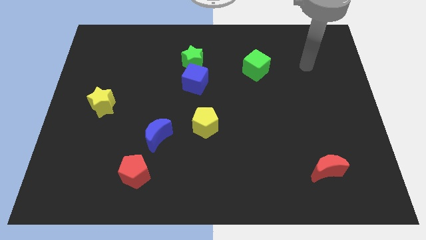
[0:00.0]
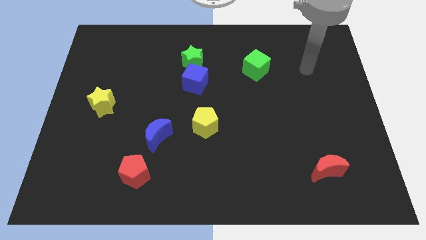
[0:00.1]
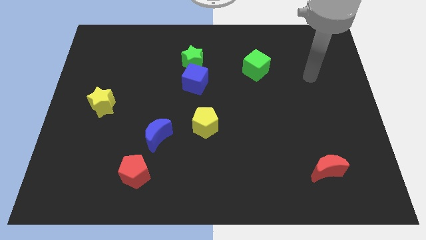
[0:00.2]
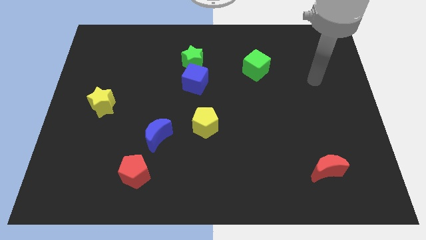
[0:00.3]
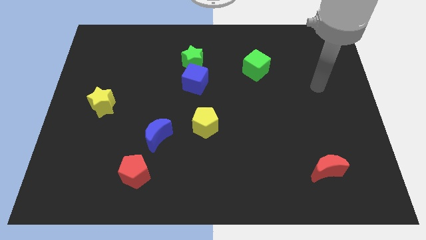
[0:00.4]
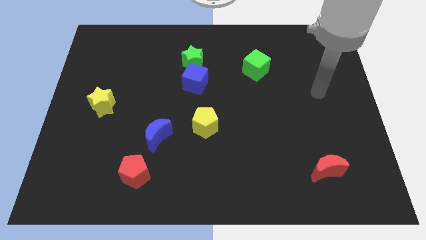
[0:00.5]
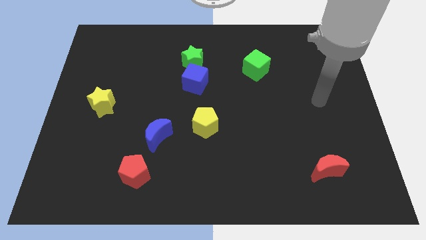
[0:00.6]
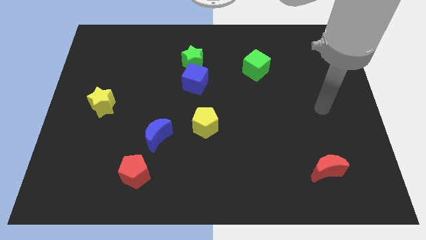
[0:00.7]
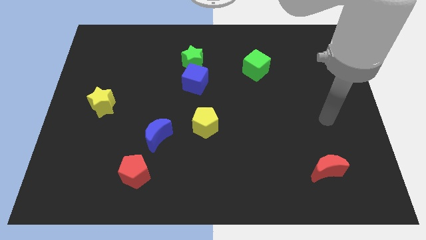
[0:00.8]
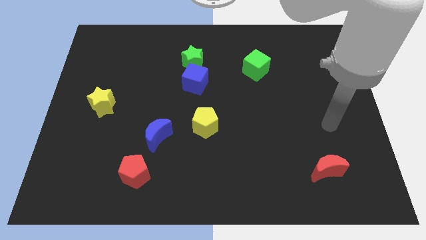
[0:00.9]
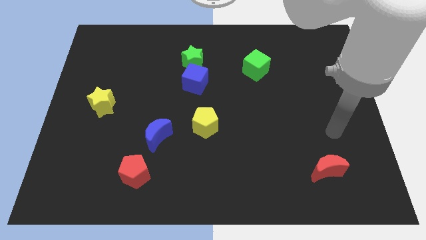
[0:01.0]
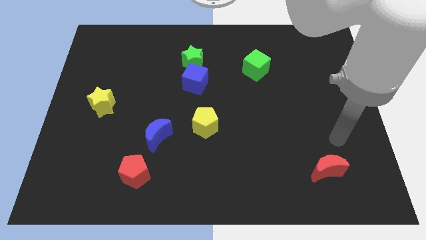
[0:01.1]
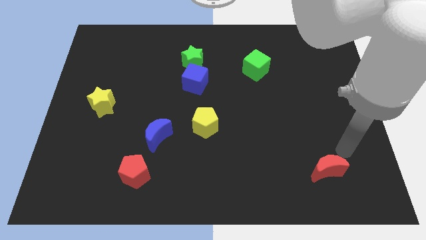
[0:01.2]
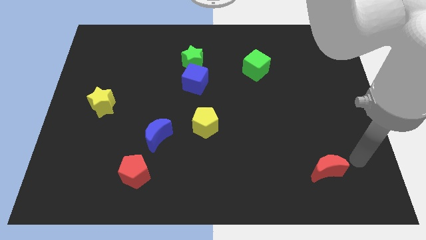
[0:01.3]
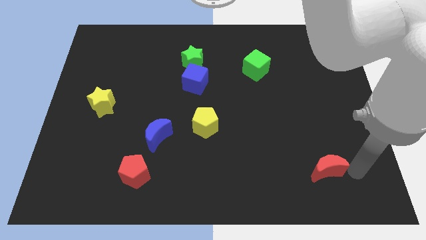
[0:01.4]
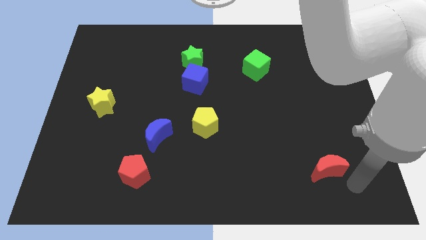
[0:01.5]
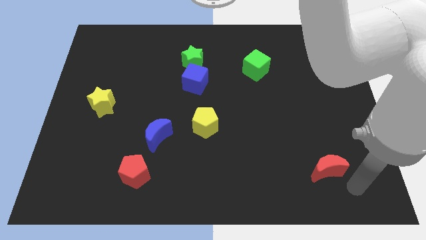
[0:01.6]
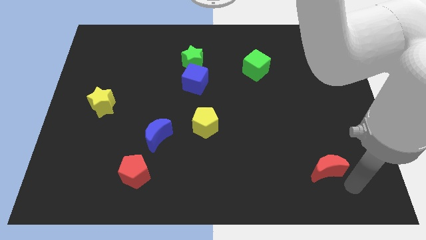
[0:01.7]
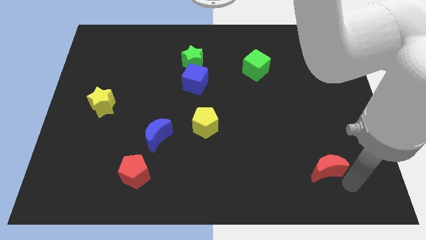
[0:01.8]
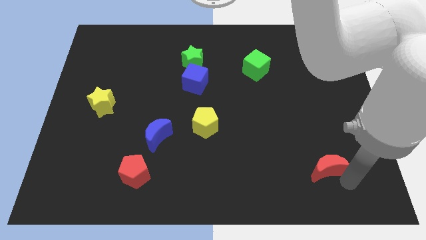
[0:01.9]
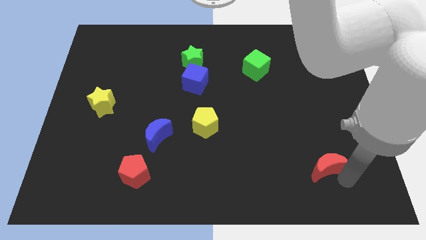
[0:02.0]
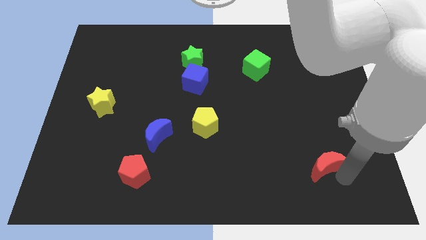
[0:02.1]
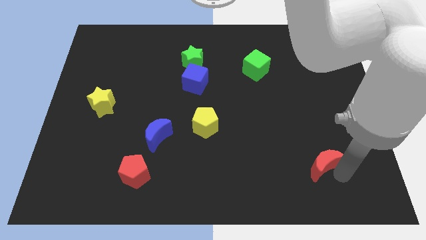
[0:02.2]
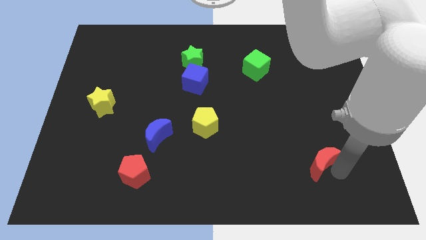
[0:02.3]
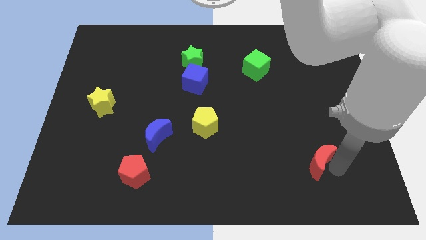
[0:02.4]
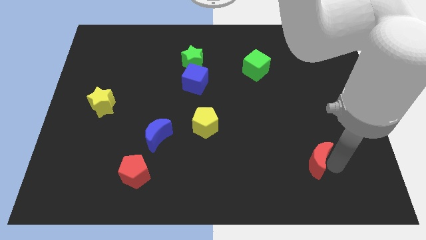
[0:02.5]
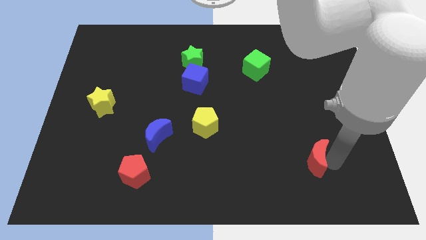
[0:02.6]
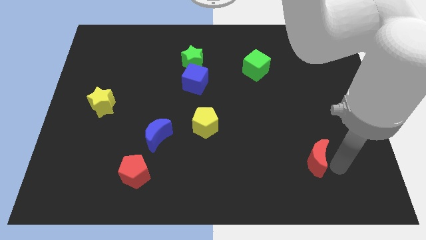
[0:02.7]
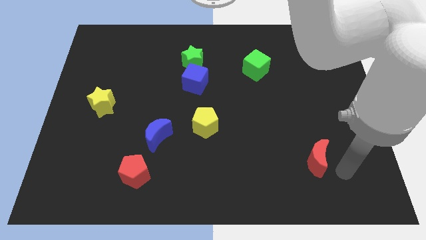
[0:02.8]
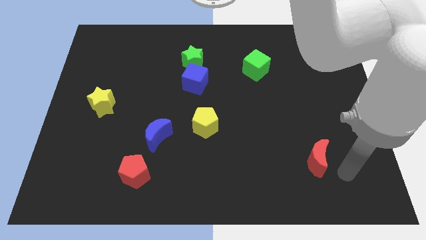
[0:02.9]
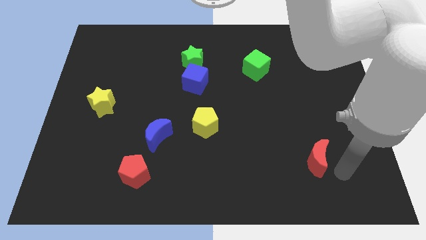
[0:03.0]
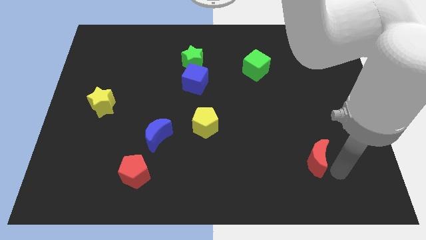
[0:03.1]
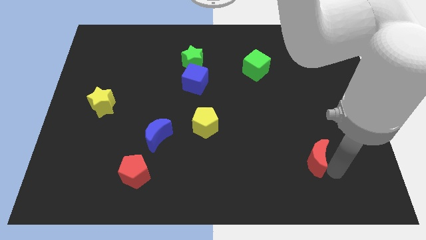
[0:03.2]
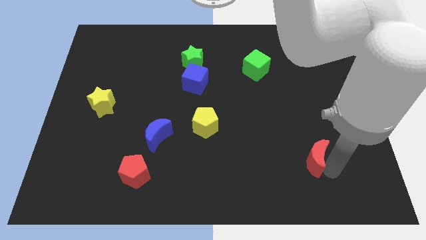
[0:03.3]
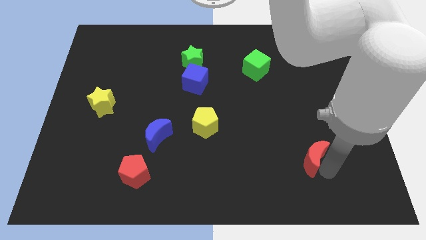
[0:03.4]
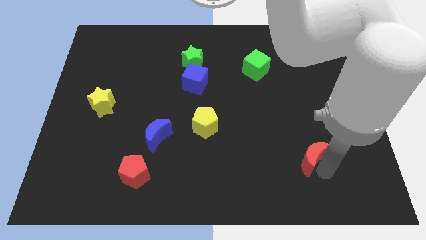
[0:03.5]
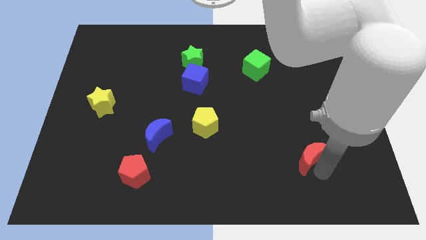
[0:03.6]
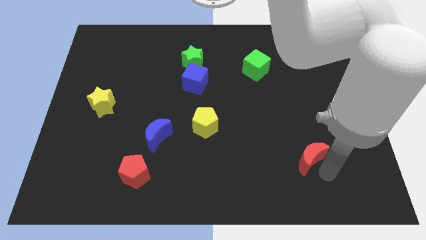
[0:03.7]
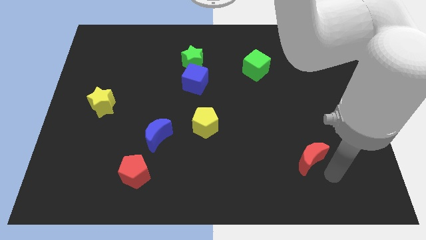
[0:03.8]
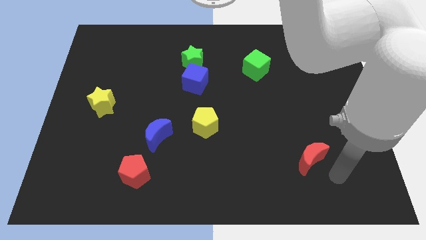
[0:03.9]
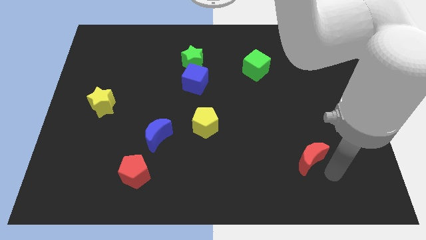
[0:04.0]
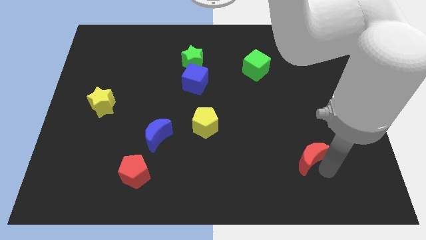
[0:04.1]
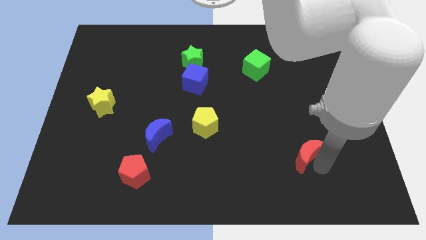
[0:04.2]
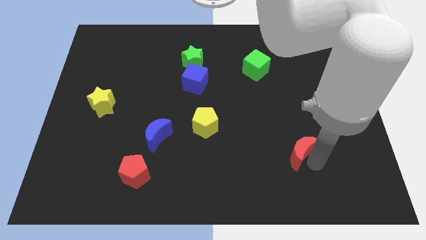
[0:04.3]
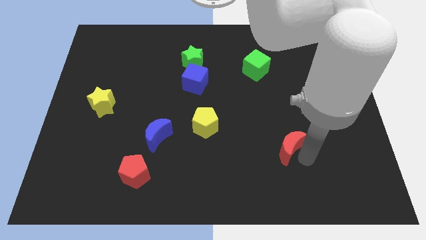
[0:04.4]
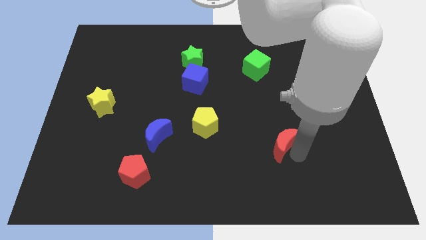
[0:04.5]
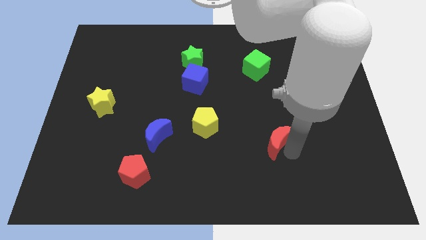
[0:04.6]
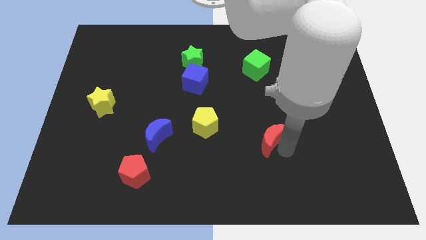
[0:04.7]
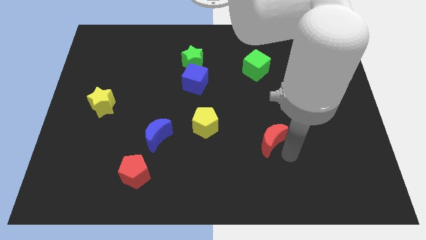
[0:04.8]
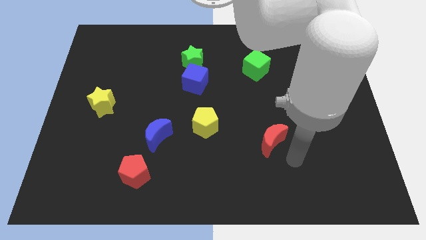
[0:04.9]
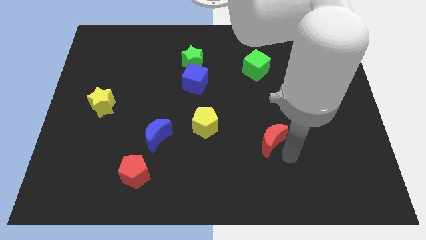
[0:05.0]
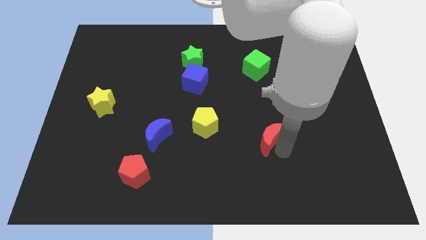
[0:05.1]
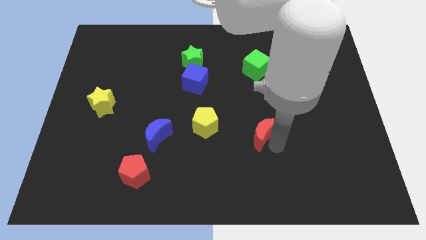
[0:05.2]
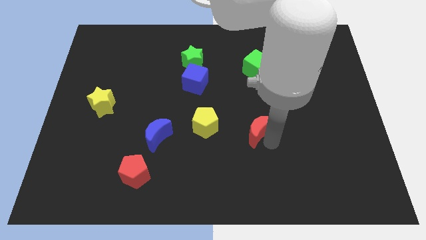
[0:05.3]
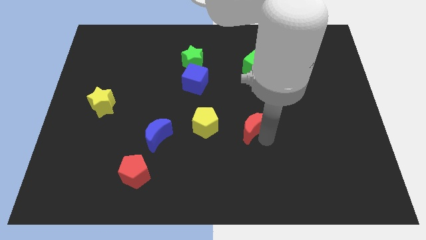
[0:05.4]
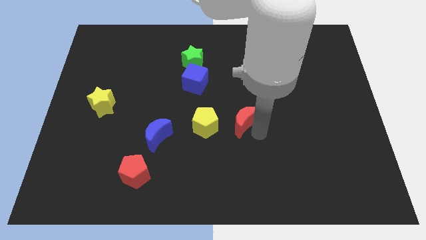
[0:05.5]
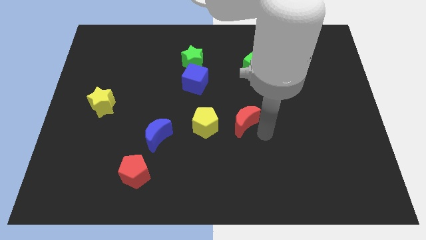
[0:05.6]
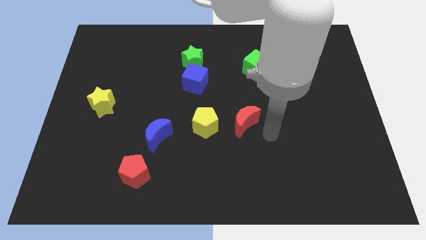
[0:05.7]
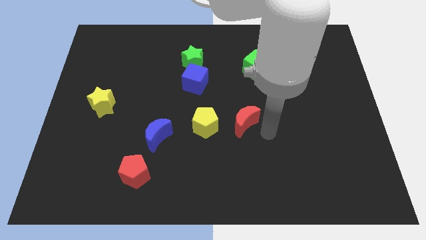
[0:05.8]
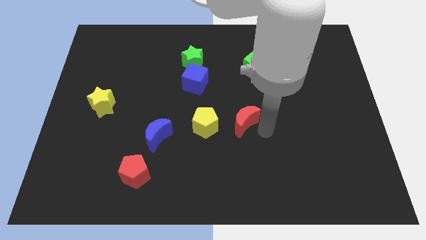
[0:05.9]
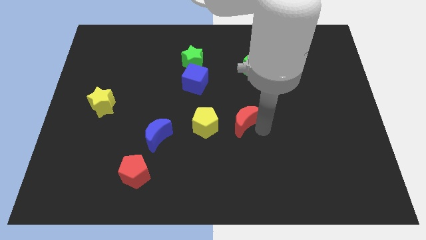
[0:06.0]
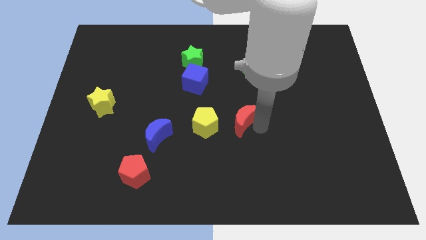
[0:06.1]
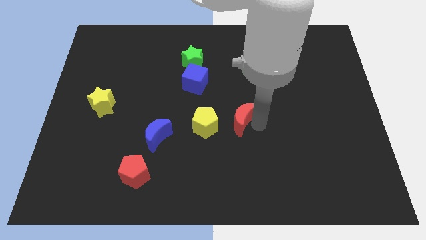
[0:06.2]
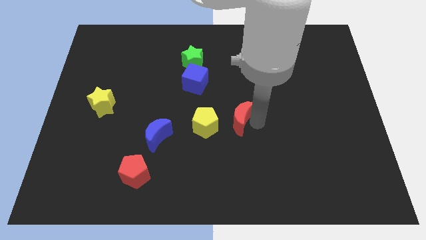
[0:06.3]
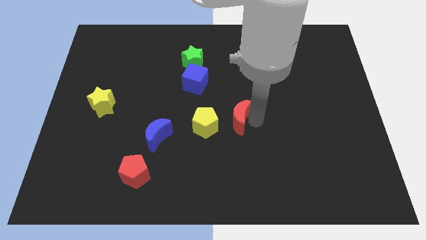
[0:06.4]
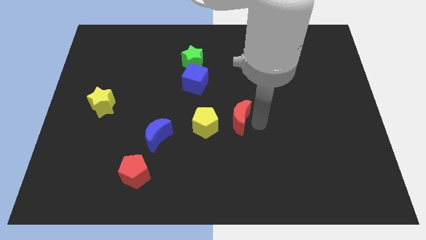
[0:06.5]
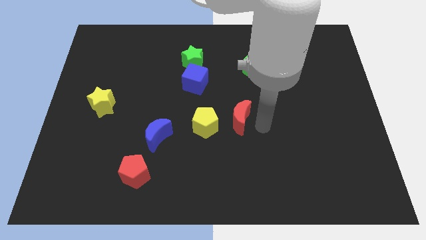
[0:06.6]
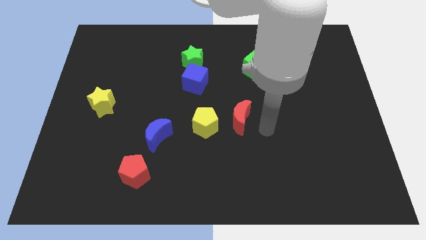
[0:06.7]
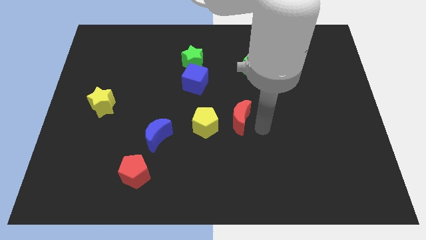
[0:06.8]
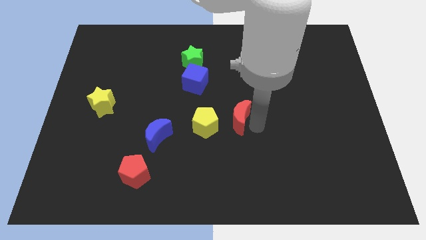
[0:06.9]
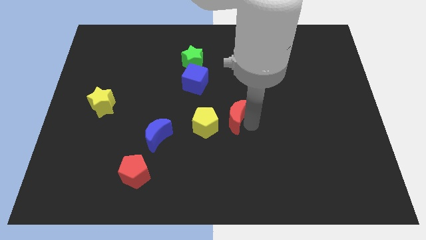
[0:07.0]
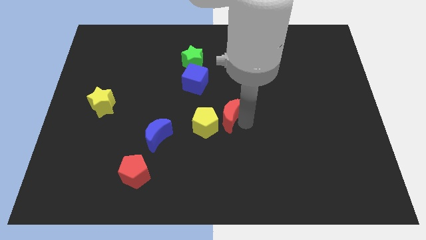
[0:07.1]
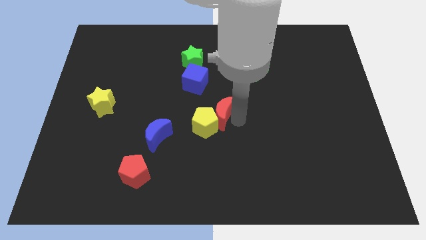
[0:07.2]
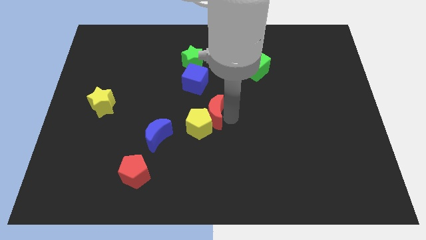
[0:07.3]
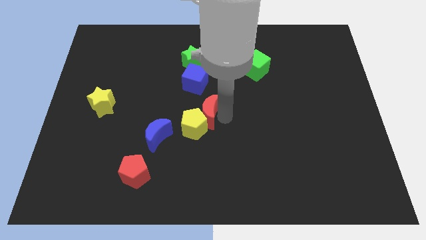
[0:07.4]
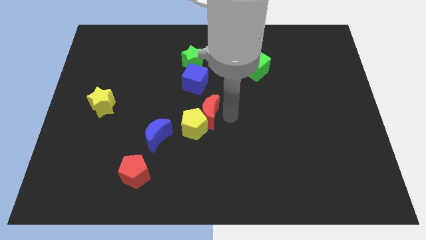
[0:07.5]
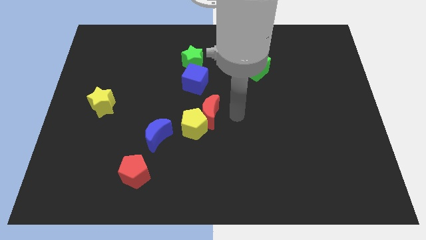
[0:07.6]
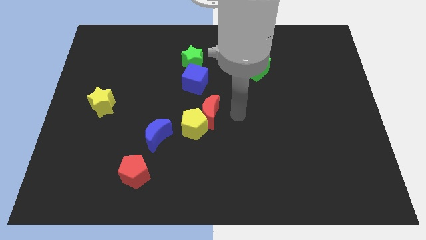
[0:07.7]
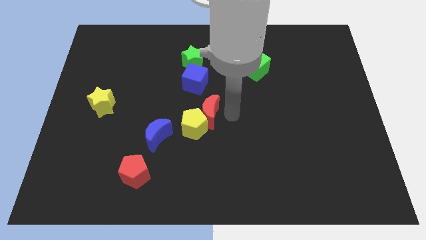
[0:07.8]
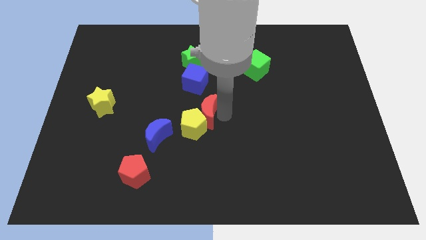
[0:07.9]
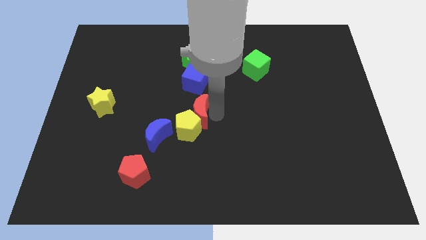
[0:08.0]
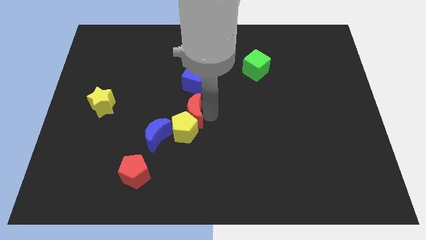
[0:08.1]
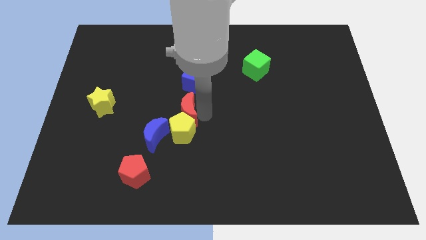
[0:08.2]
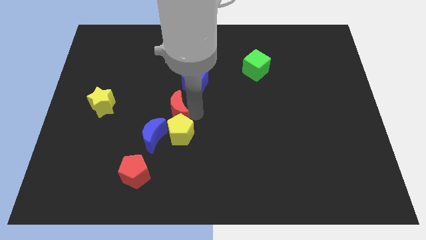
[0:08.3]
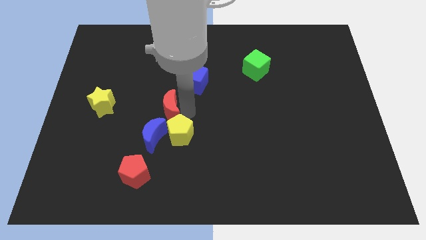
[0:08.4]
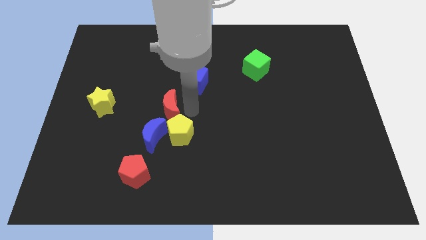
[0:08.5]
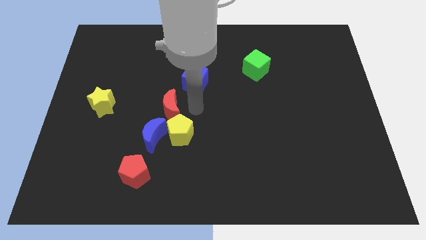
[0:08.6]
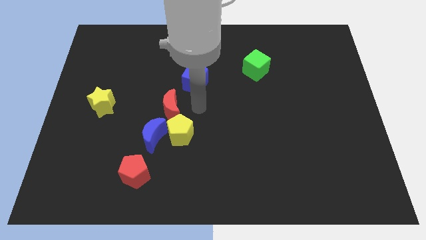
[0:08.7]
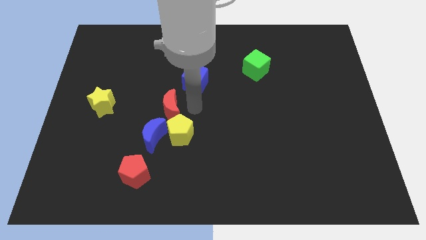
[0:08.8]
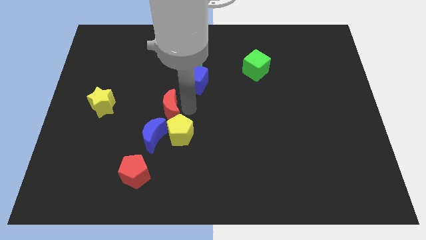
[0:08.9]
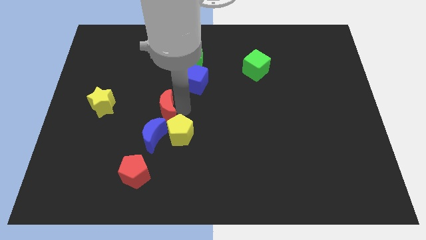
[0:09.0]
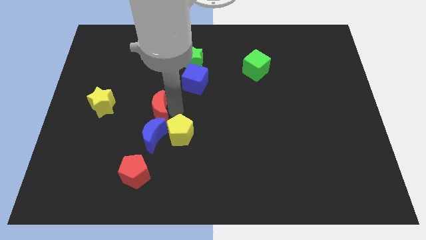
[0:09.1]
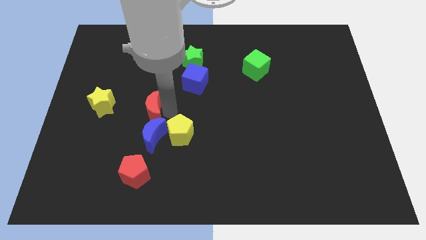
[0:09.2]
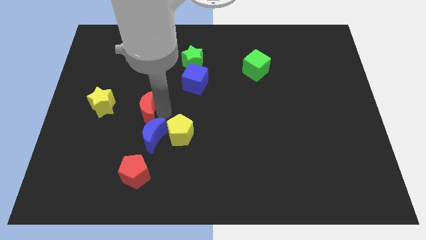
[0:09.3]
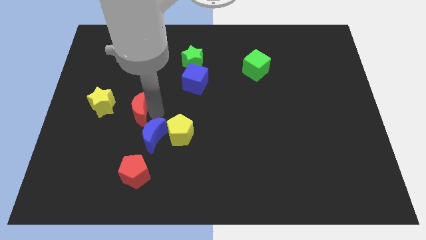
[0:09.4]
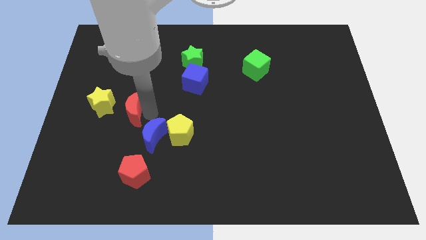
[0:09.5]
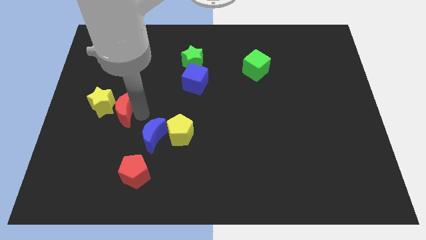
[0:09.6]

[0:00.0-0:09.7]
push the red moon to the yellow star
